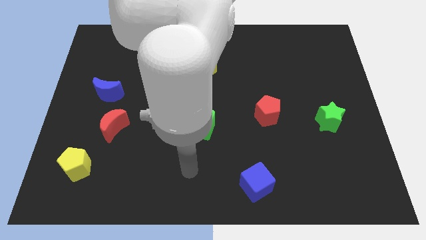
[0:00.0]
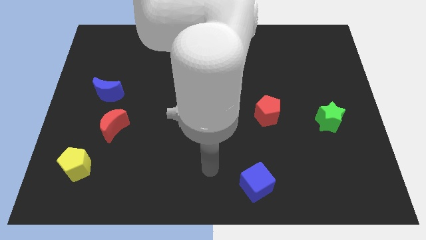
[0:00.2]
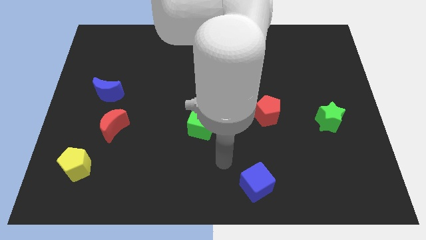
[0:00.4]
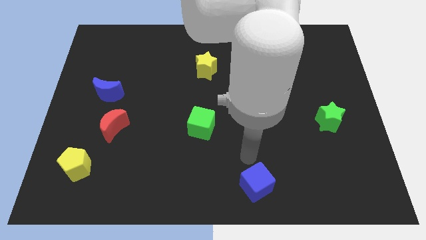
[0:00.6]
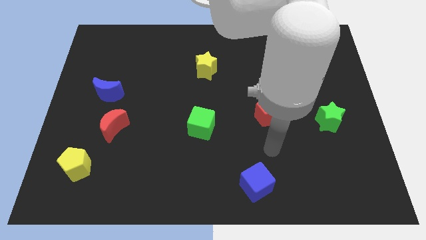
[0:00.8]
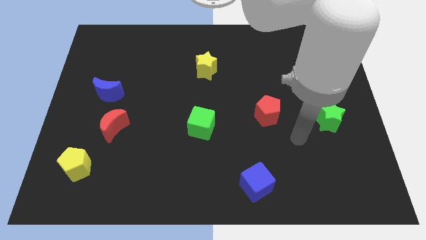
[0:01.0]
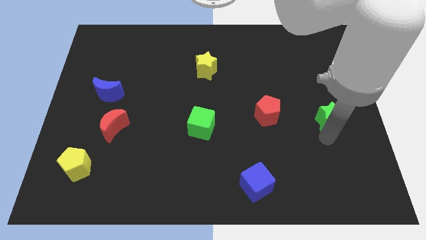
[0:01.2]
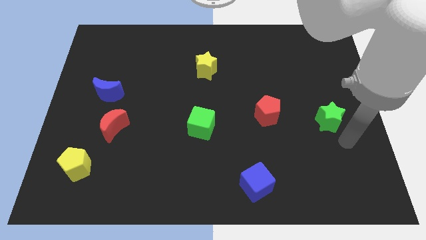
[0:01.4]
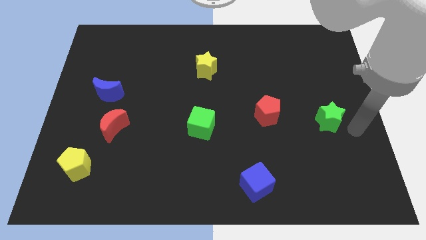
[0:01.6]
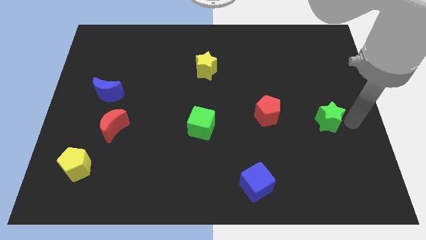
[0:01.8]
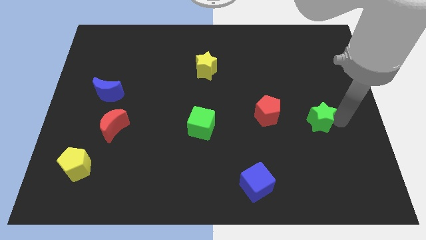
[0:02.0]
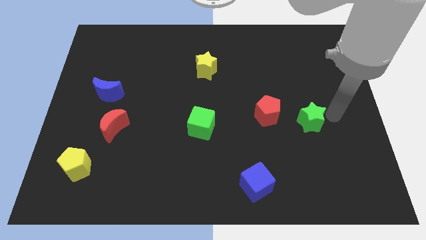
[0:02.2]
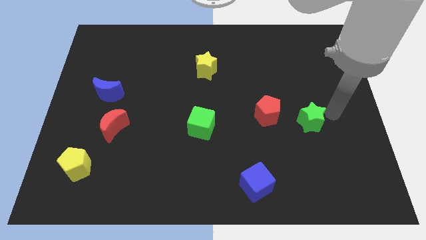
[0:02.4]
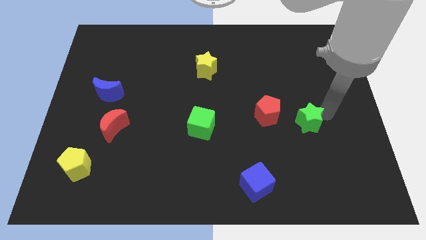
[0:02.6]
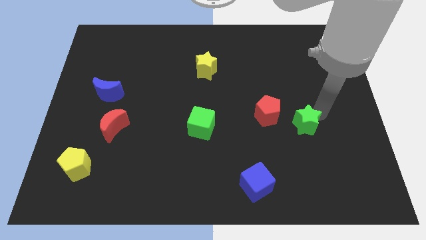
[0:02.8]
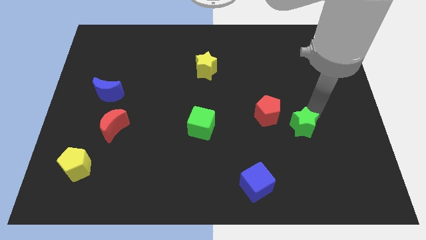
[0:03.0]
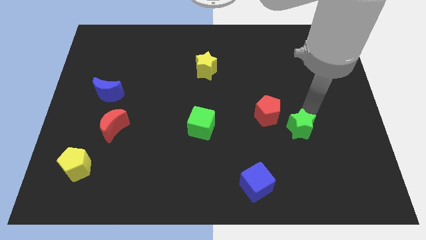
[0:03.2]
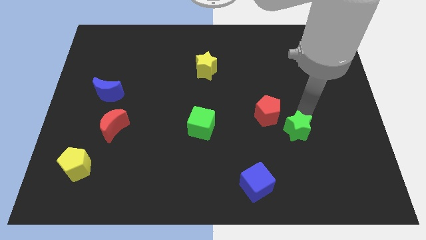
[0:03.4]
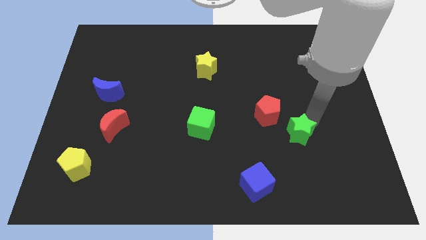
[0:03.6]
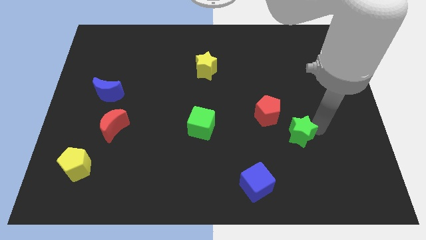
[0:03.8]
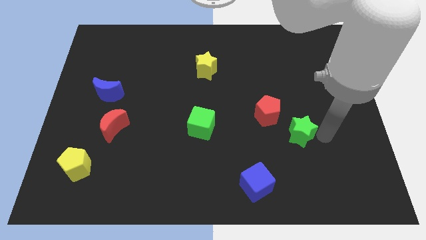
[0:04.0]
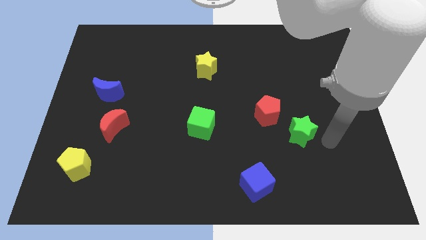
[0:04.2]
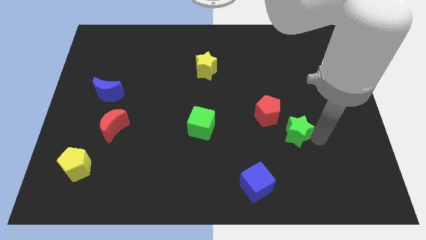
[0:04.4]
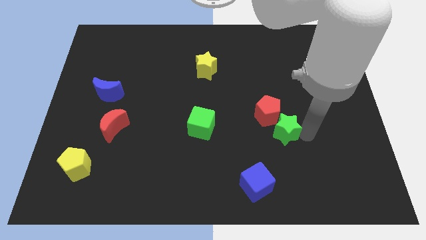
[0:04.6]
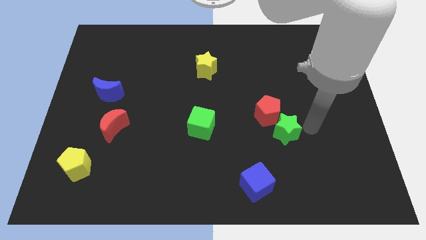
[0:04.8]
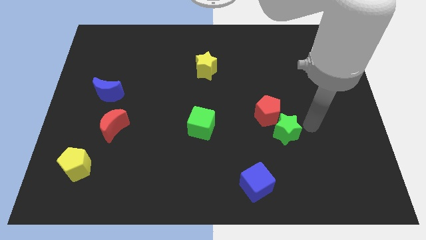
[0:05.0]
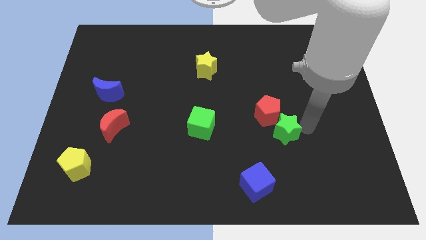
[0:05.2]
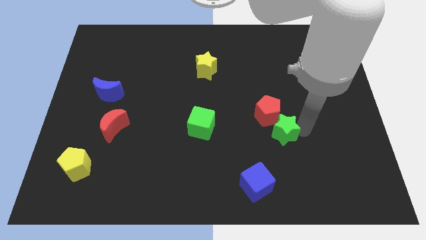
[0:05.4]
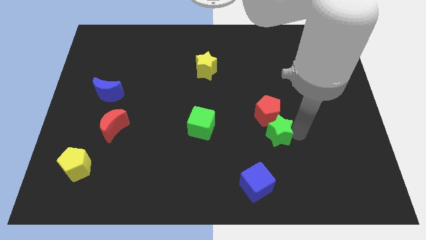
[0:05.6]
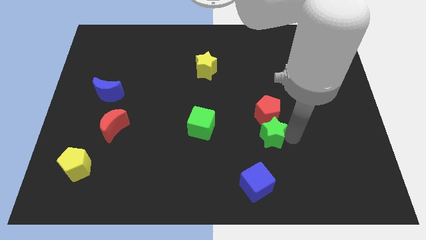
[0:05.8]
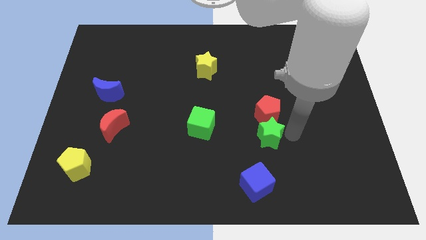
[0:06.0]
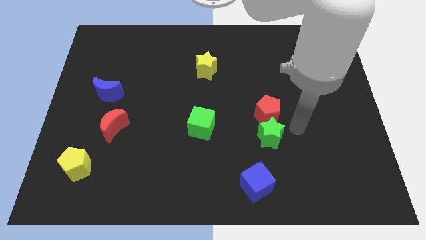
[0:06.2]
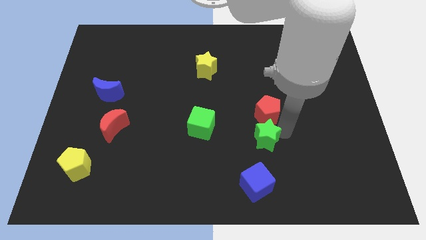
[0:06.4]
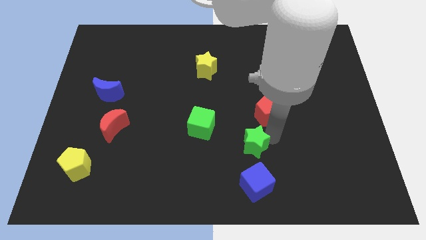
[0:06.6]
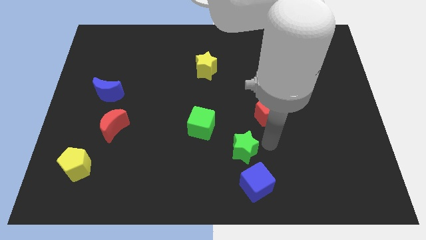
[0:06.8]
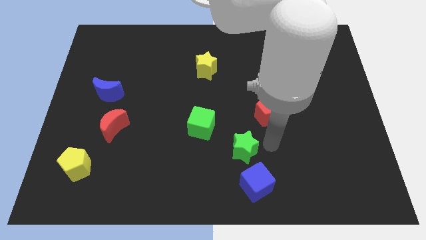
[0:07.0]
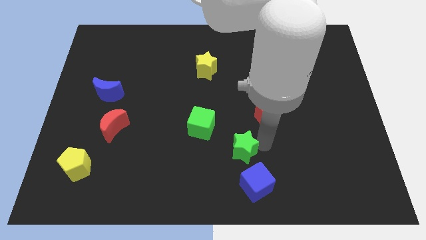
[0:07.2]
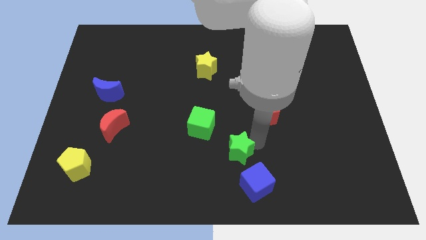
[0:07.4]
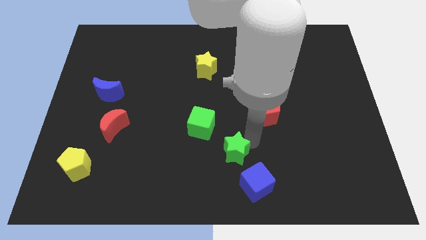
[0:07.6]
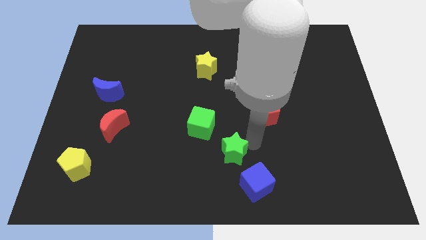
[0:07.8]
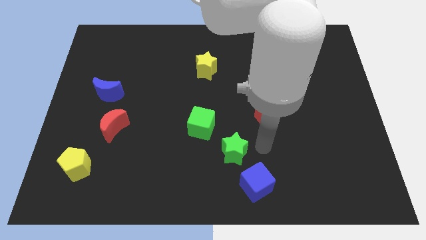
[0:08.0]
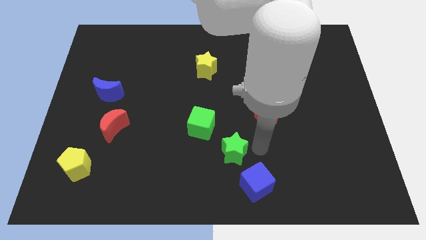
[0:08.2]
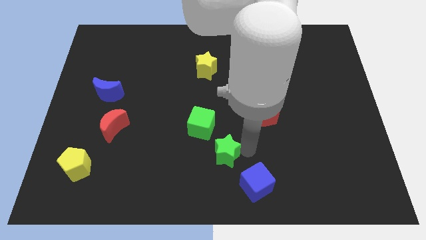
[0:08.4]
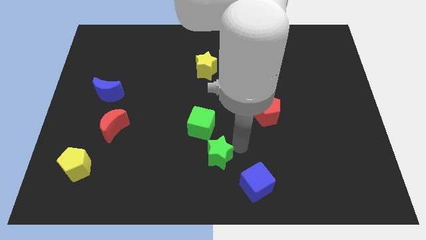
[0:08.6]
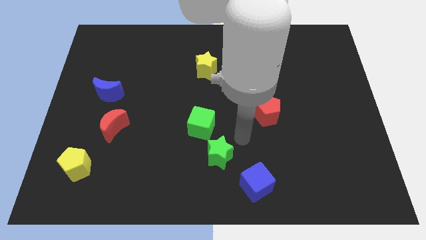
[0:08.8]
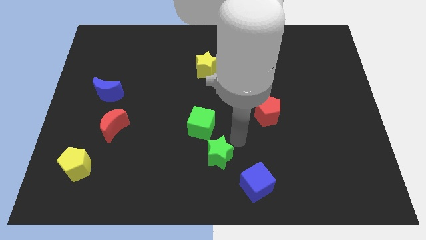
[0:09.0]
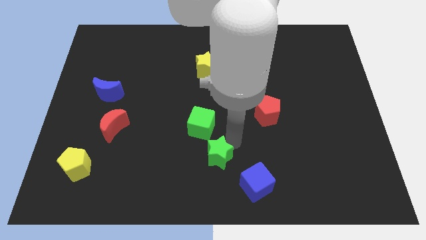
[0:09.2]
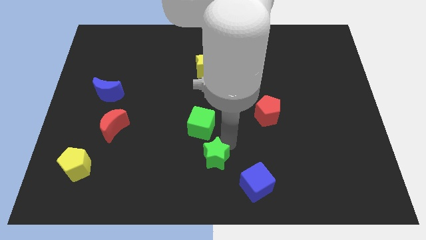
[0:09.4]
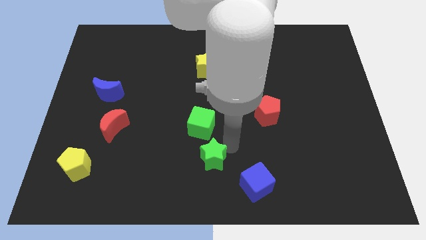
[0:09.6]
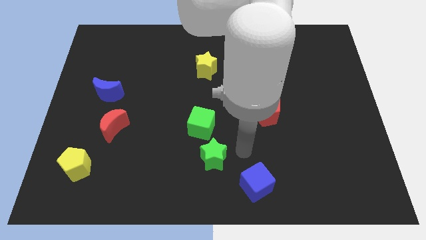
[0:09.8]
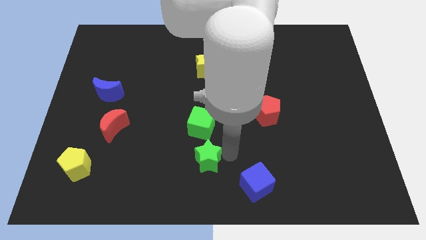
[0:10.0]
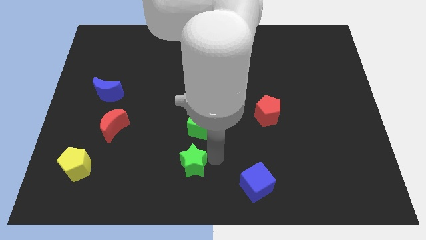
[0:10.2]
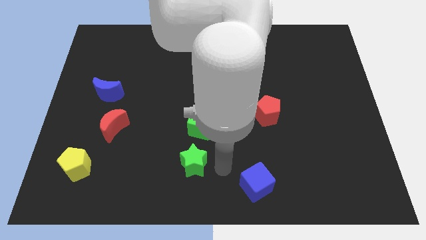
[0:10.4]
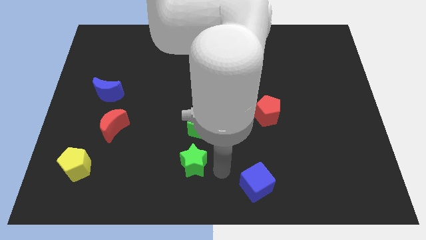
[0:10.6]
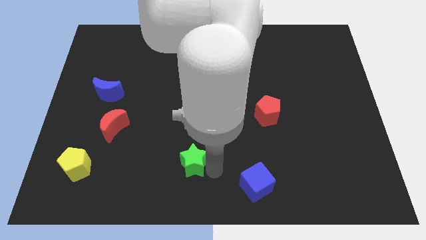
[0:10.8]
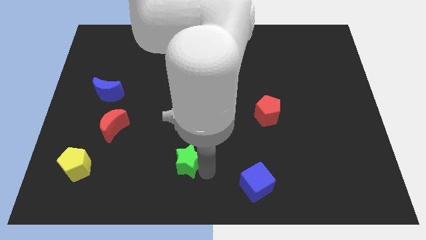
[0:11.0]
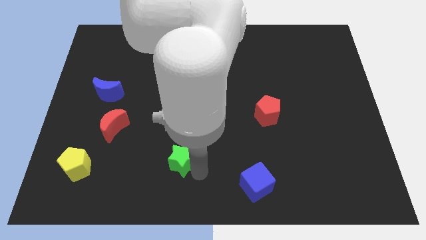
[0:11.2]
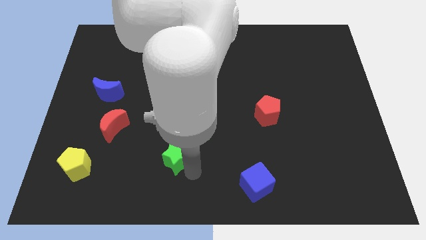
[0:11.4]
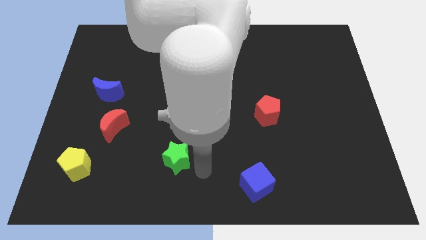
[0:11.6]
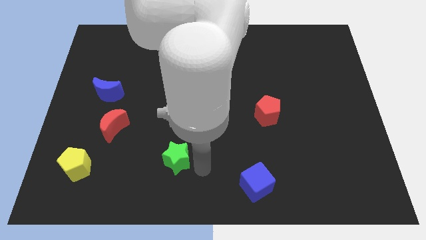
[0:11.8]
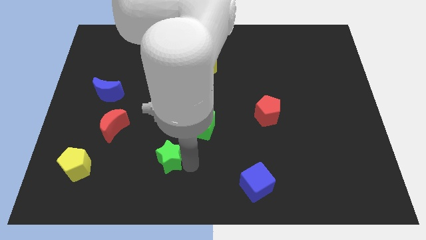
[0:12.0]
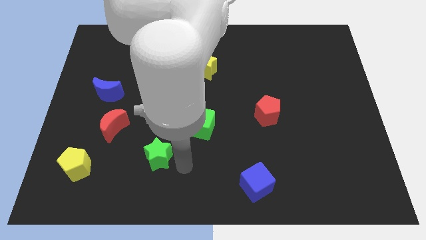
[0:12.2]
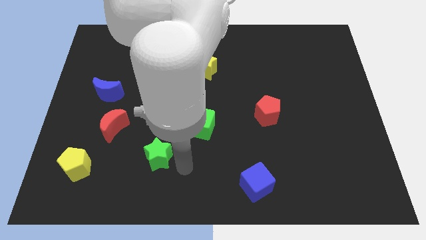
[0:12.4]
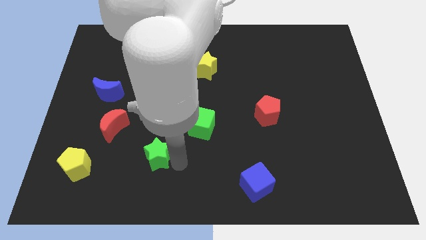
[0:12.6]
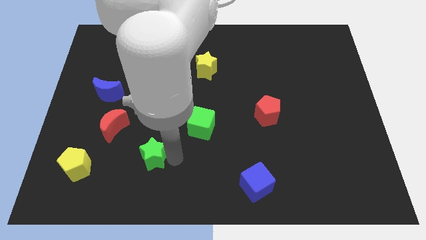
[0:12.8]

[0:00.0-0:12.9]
push the green star diagonally down and to the right of the red moon

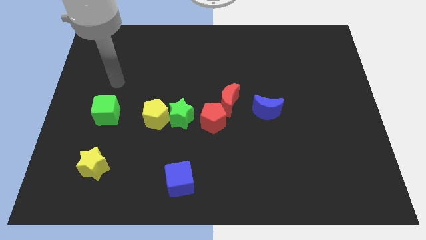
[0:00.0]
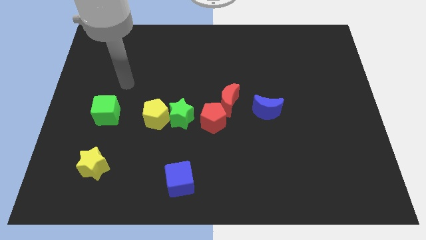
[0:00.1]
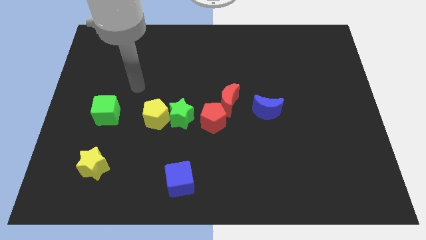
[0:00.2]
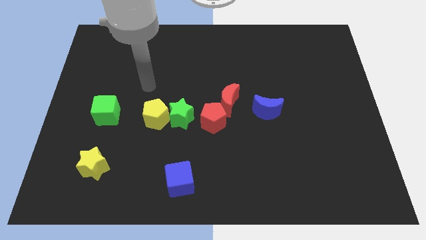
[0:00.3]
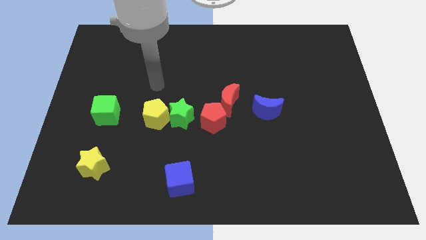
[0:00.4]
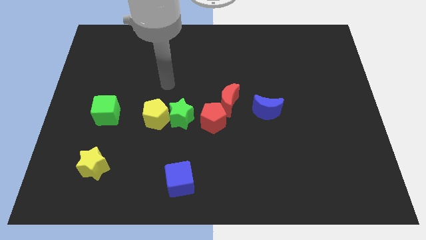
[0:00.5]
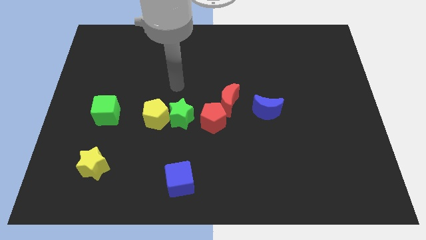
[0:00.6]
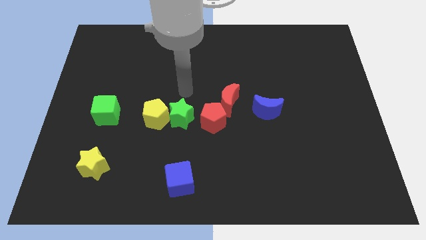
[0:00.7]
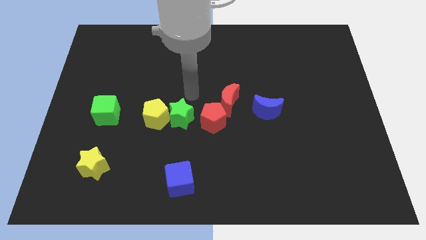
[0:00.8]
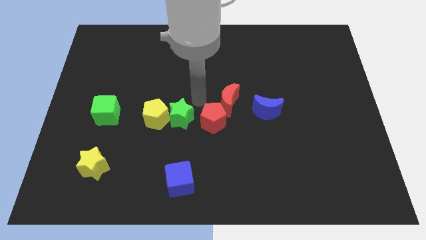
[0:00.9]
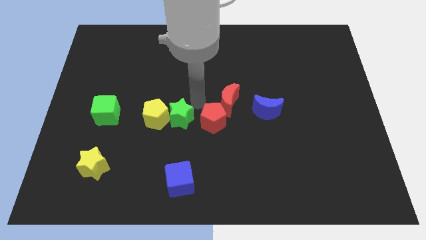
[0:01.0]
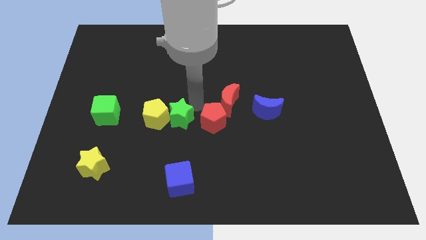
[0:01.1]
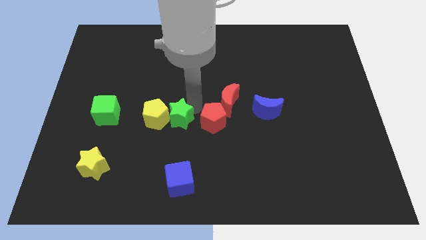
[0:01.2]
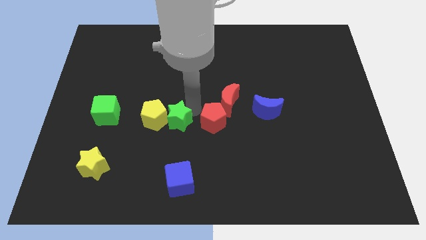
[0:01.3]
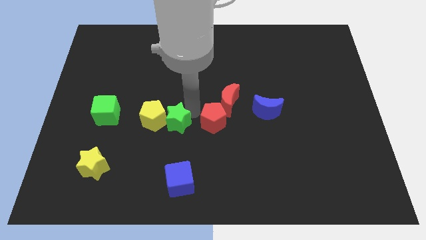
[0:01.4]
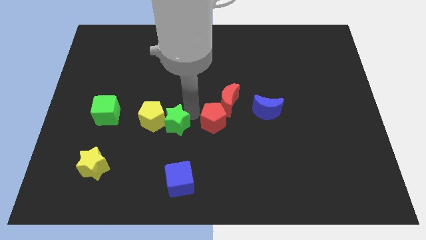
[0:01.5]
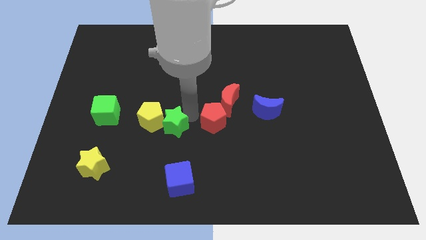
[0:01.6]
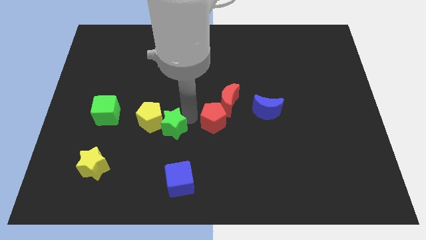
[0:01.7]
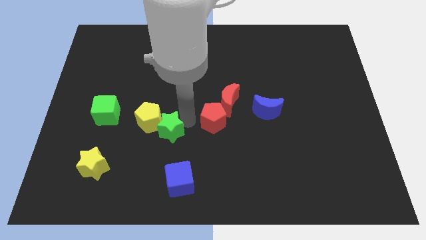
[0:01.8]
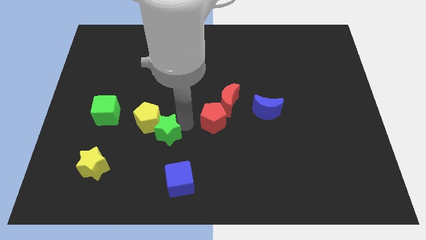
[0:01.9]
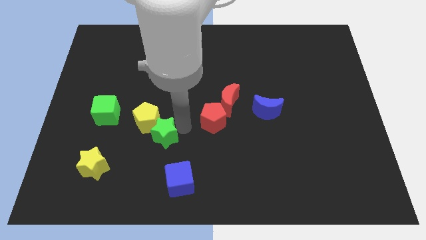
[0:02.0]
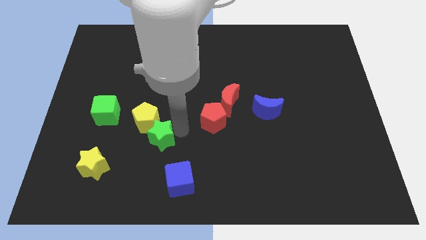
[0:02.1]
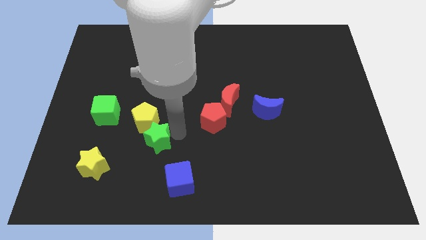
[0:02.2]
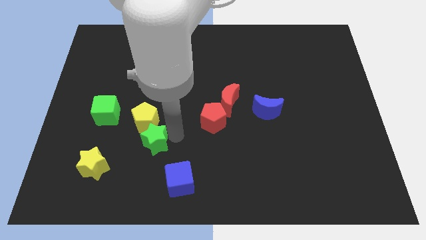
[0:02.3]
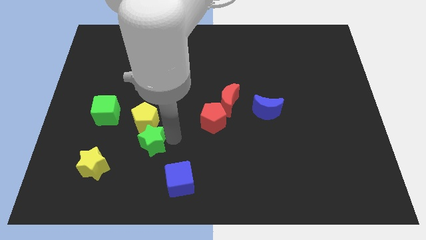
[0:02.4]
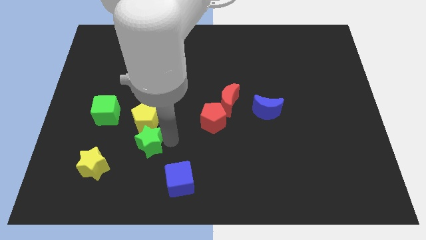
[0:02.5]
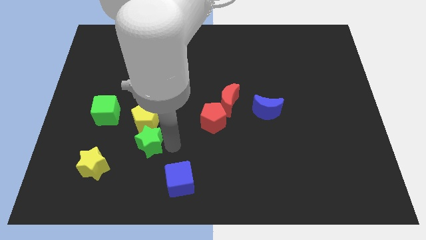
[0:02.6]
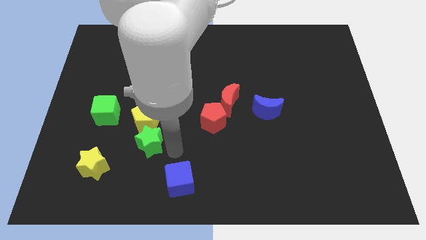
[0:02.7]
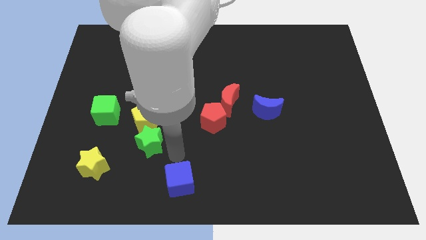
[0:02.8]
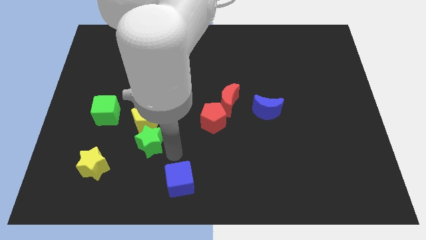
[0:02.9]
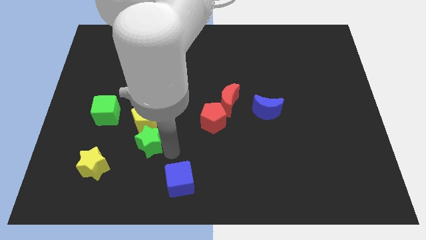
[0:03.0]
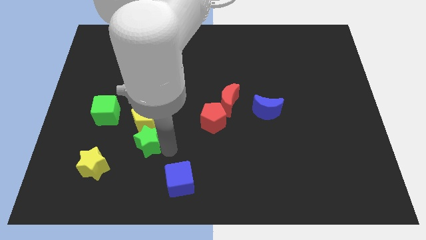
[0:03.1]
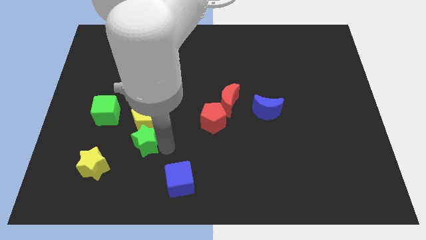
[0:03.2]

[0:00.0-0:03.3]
slide the green star to the bottom right side of the green cube
